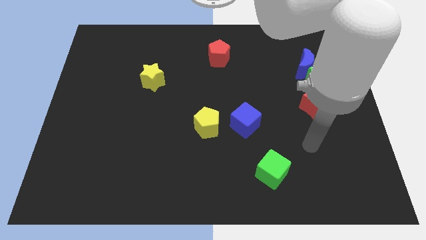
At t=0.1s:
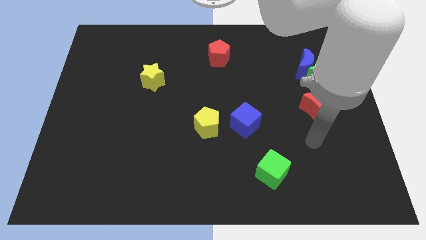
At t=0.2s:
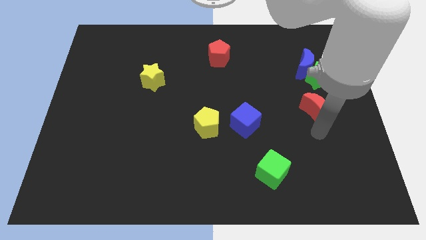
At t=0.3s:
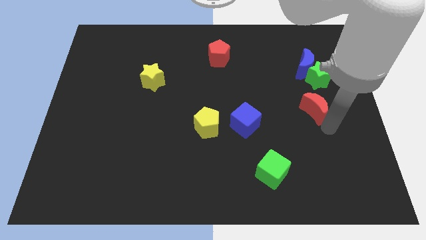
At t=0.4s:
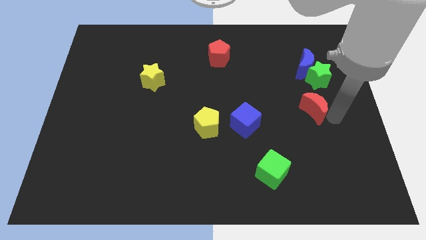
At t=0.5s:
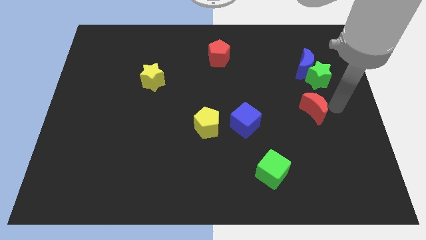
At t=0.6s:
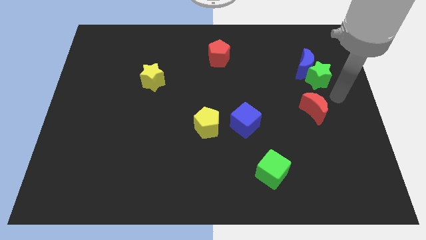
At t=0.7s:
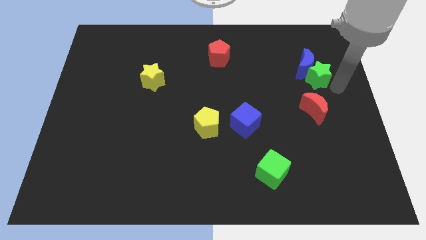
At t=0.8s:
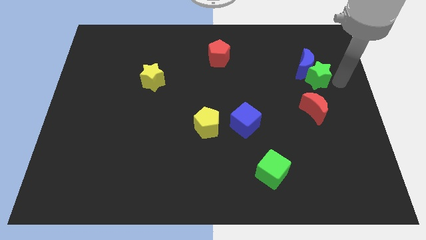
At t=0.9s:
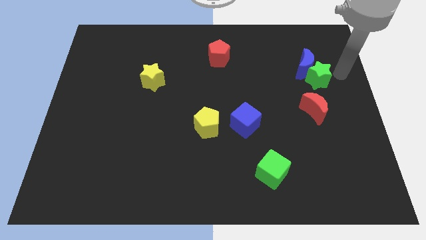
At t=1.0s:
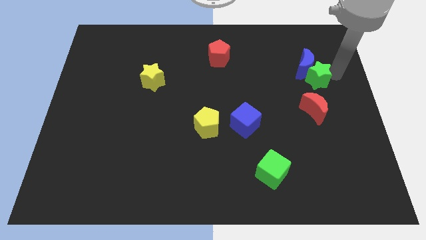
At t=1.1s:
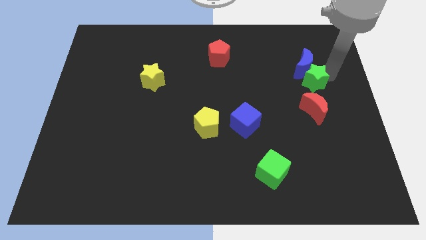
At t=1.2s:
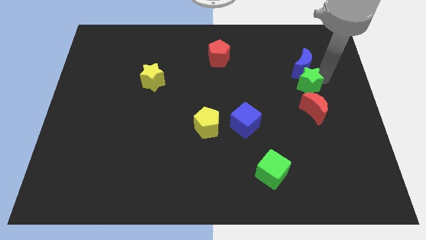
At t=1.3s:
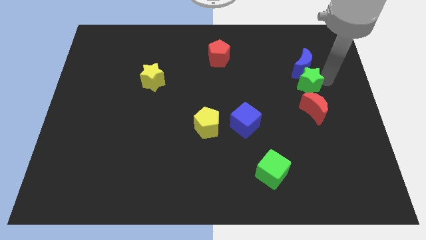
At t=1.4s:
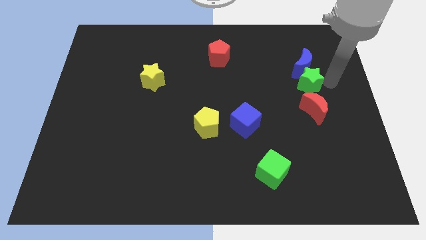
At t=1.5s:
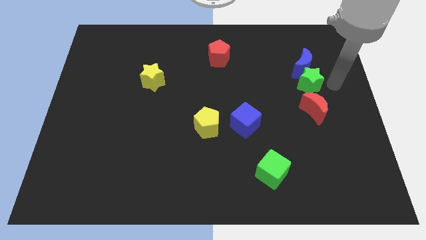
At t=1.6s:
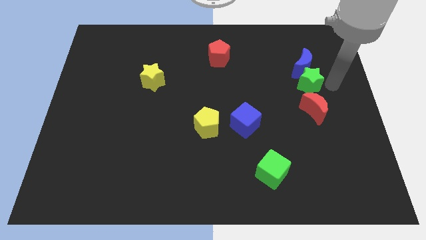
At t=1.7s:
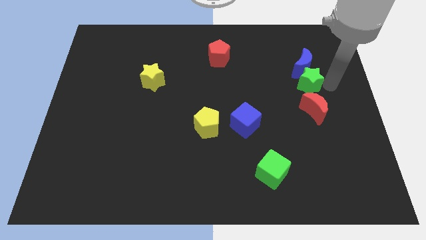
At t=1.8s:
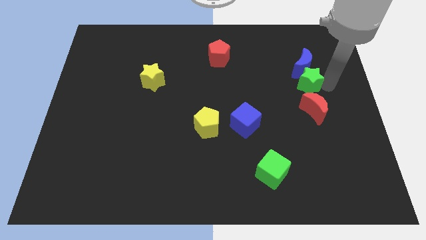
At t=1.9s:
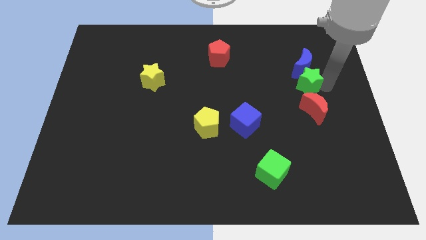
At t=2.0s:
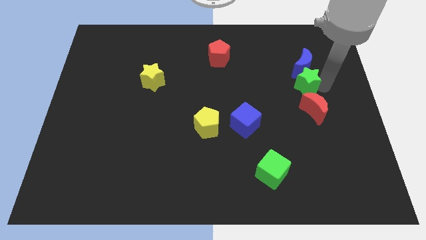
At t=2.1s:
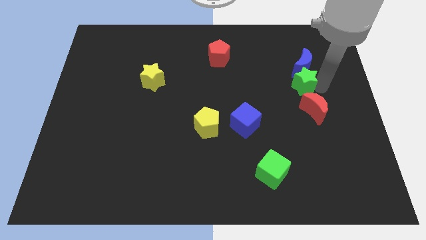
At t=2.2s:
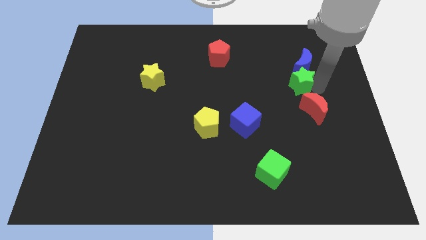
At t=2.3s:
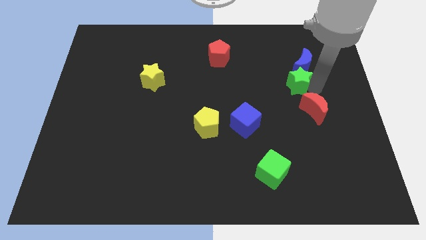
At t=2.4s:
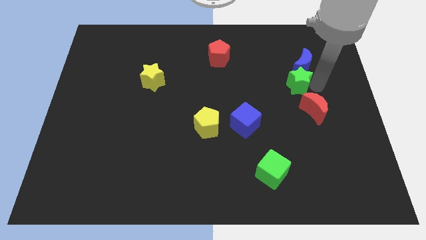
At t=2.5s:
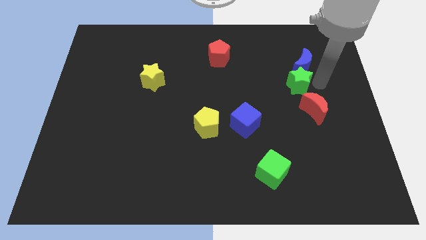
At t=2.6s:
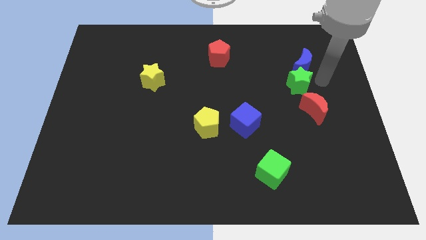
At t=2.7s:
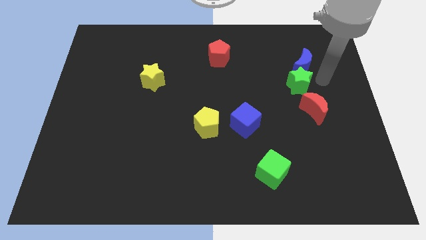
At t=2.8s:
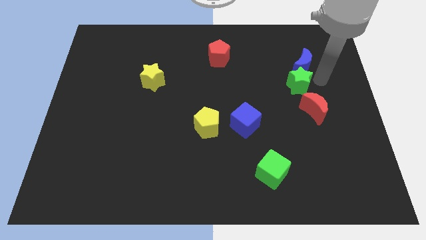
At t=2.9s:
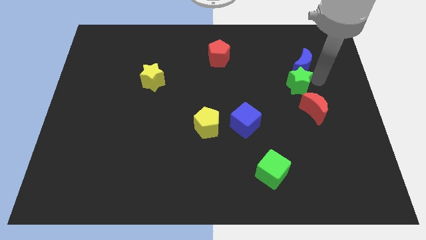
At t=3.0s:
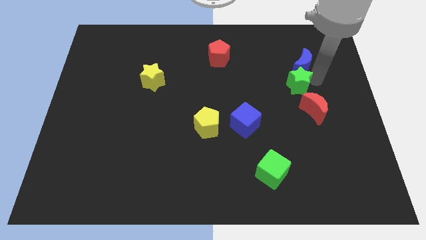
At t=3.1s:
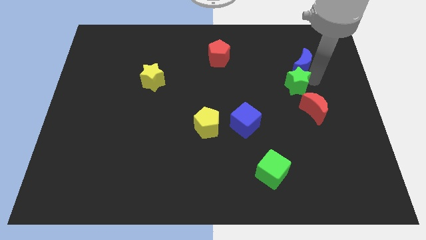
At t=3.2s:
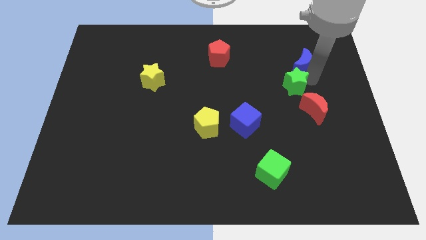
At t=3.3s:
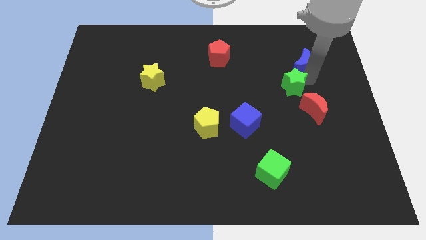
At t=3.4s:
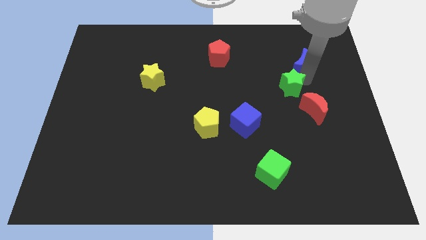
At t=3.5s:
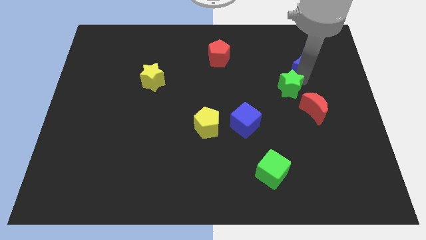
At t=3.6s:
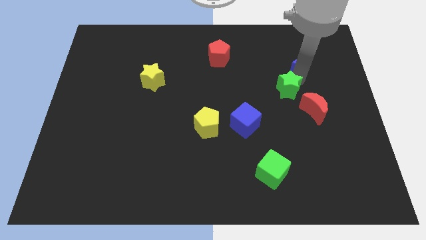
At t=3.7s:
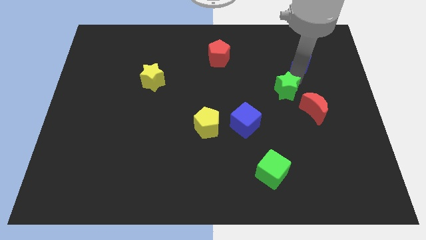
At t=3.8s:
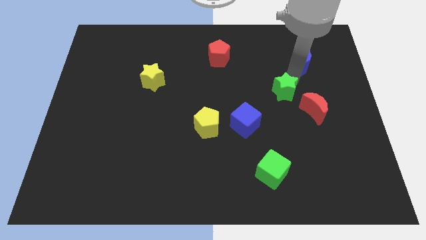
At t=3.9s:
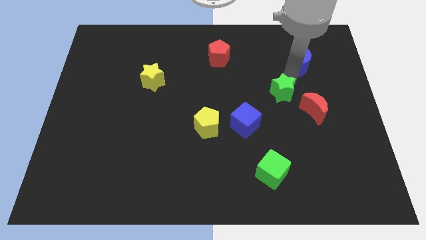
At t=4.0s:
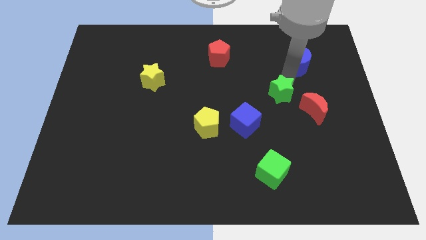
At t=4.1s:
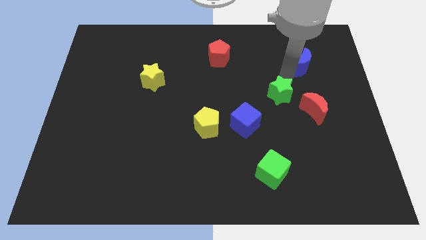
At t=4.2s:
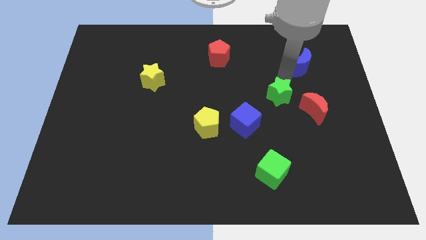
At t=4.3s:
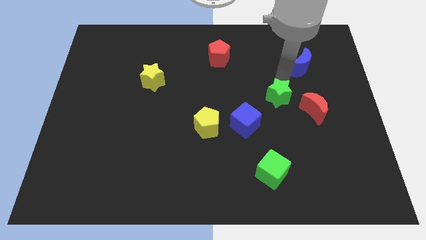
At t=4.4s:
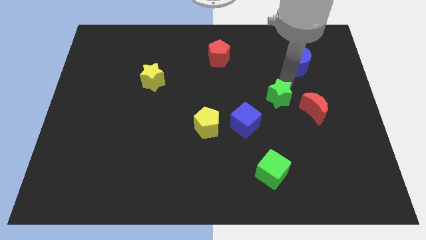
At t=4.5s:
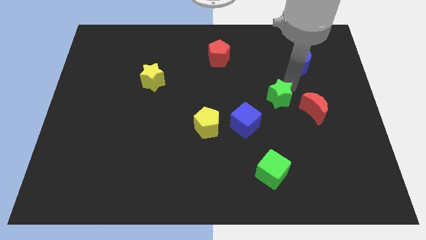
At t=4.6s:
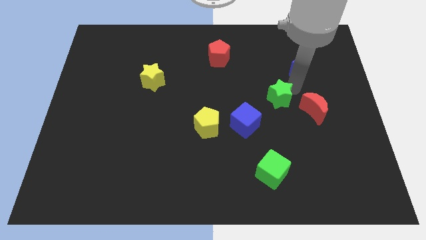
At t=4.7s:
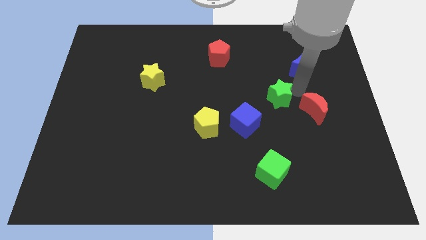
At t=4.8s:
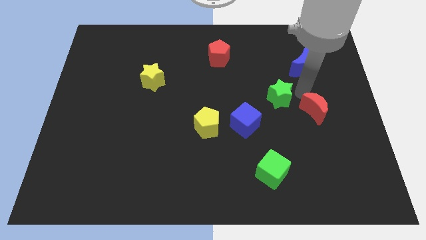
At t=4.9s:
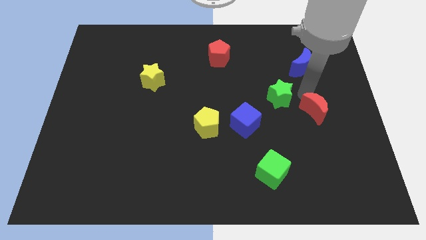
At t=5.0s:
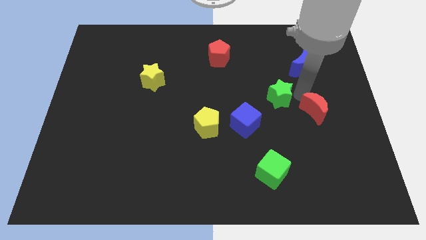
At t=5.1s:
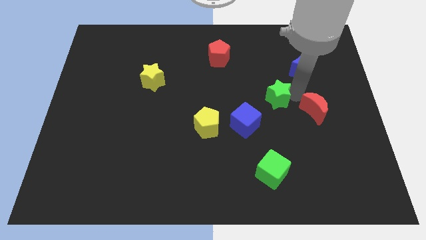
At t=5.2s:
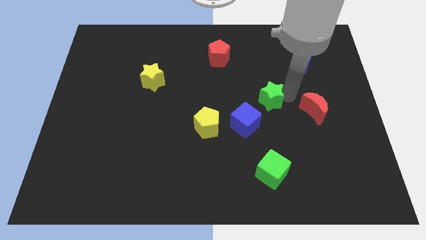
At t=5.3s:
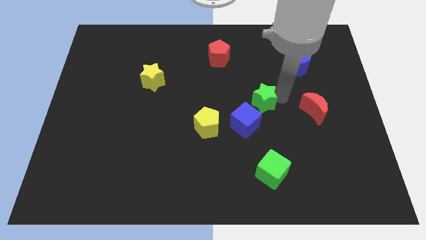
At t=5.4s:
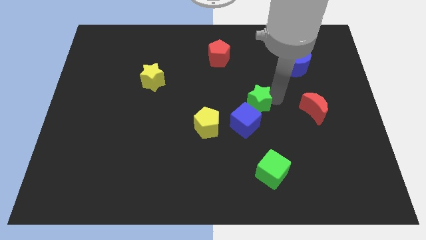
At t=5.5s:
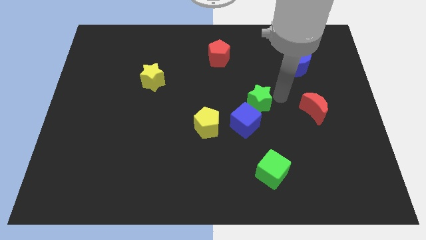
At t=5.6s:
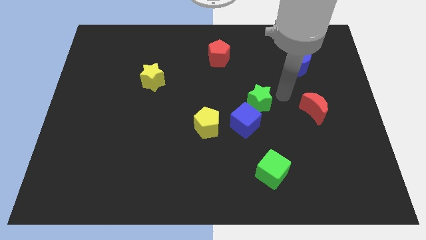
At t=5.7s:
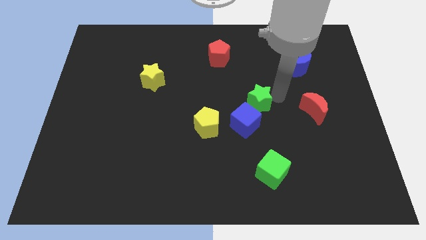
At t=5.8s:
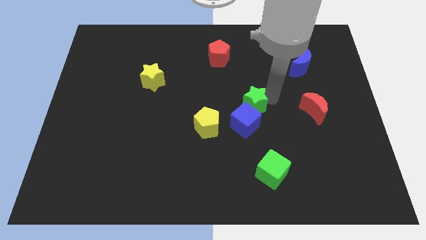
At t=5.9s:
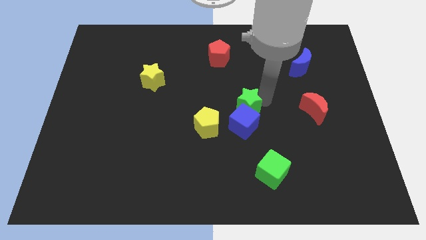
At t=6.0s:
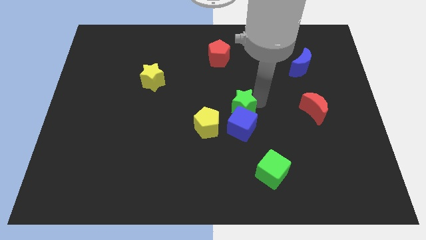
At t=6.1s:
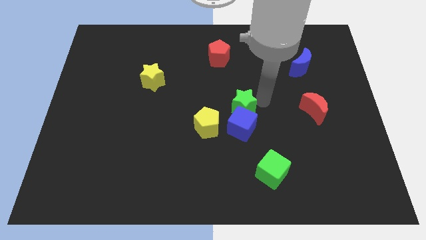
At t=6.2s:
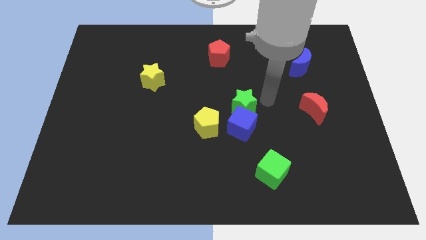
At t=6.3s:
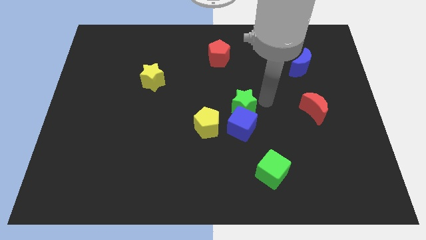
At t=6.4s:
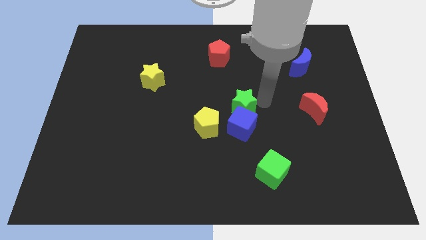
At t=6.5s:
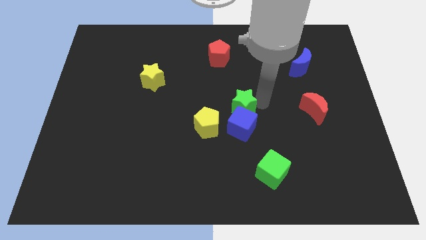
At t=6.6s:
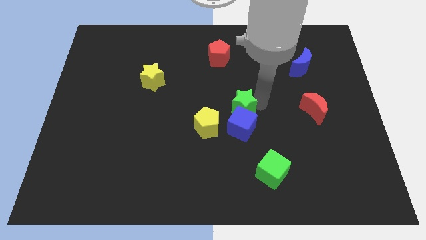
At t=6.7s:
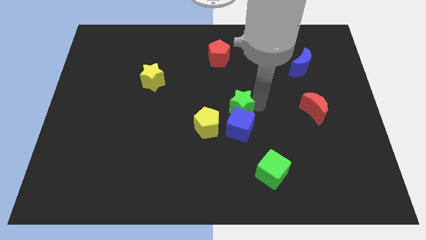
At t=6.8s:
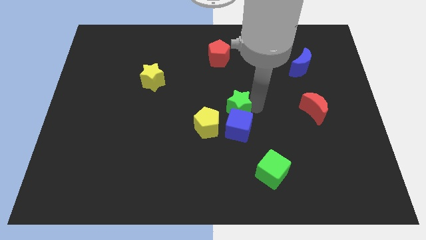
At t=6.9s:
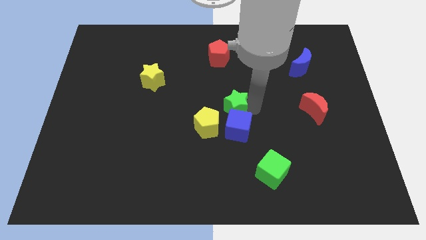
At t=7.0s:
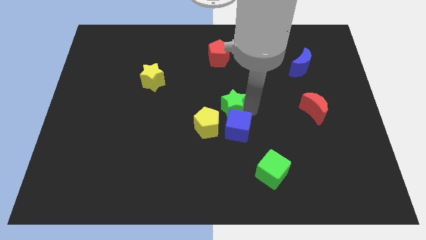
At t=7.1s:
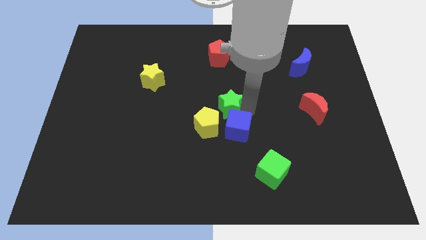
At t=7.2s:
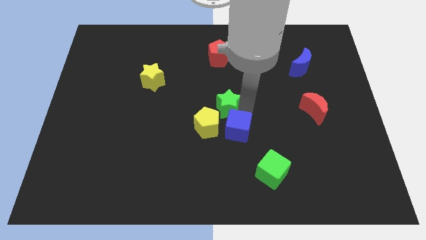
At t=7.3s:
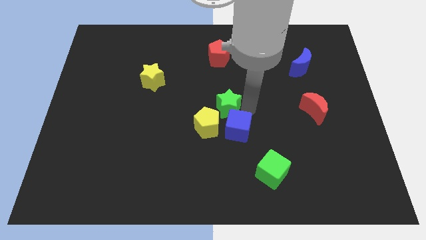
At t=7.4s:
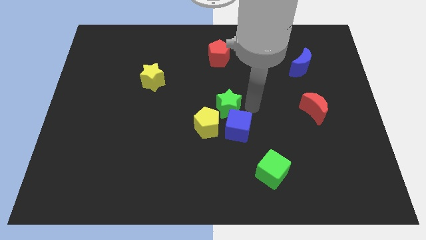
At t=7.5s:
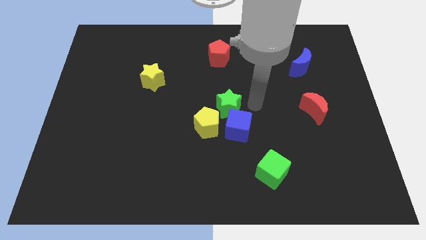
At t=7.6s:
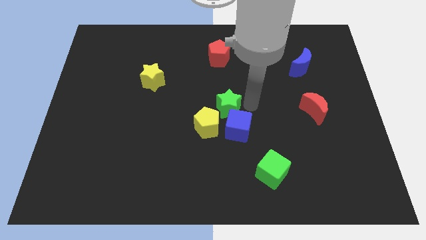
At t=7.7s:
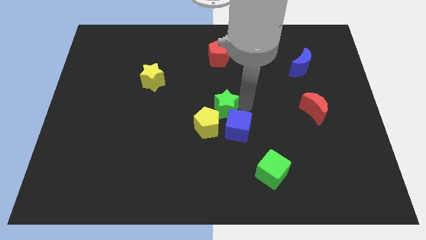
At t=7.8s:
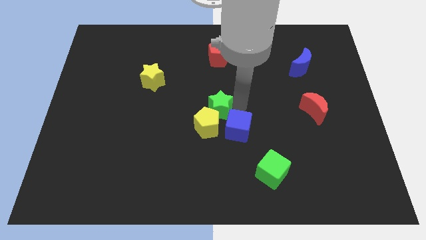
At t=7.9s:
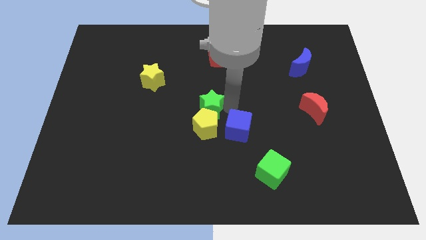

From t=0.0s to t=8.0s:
push the green star to the top left side of the yellow pentagon
